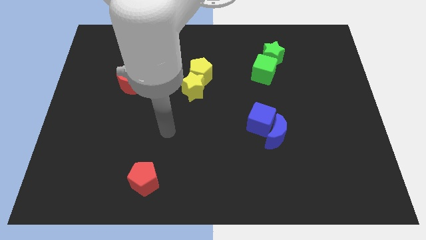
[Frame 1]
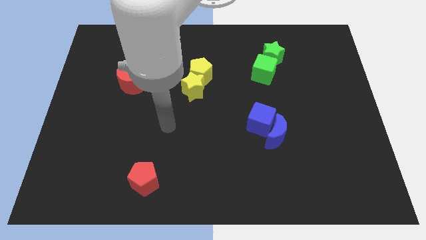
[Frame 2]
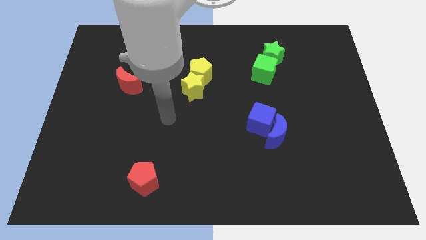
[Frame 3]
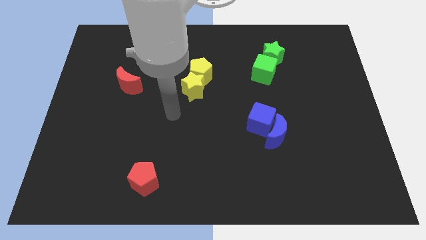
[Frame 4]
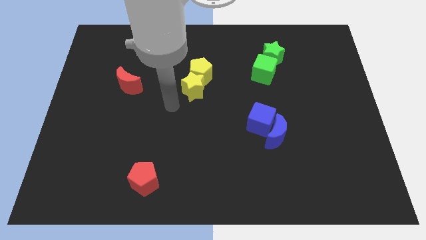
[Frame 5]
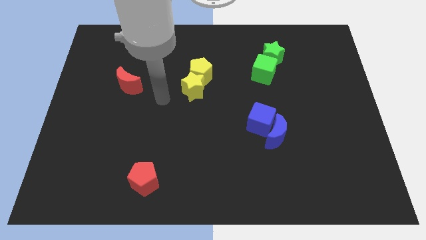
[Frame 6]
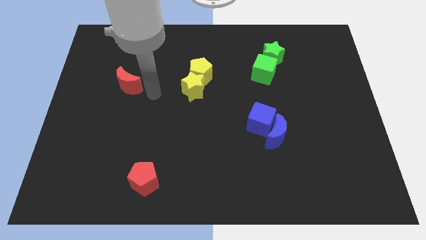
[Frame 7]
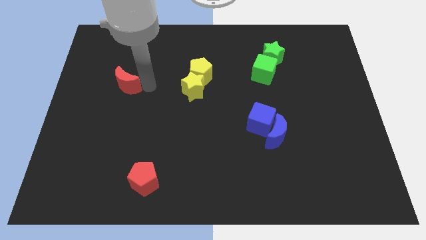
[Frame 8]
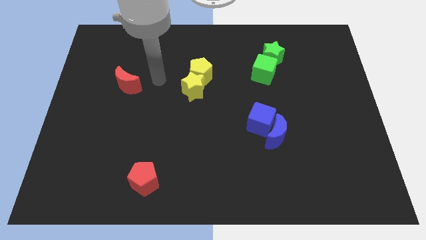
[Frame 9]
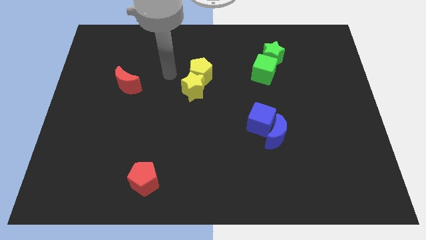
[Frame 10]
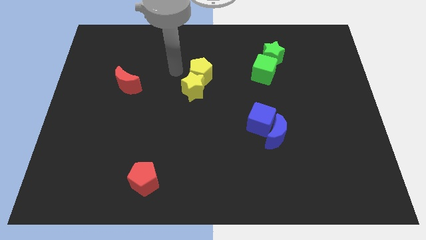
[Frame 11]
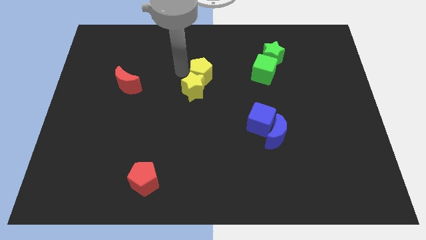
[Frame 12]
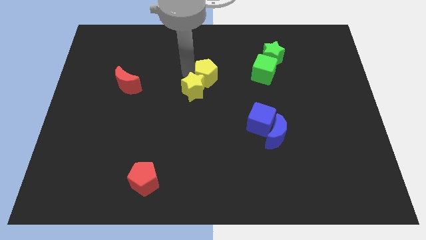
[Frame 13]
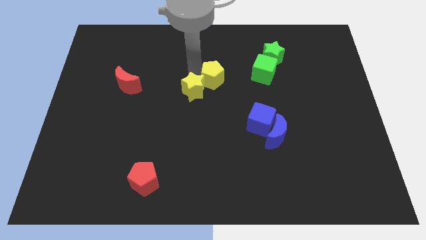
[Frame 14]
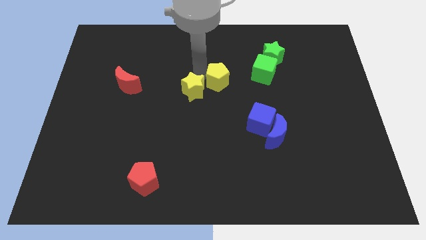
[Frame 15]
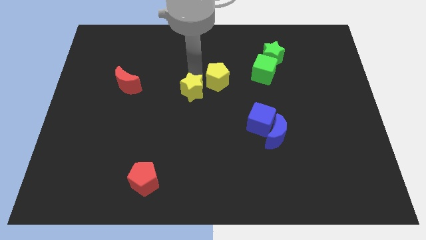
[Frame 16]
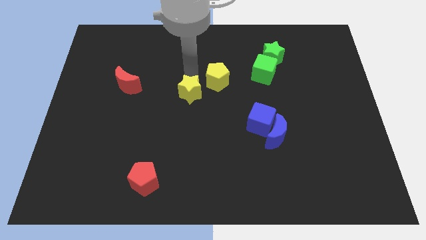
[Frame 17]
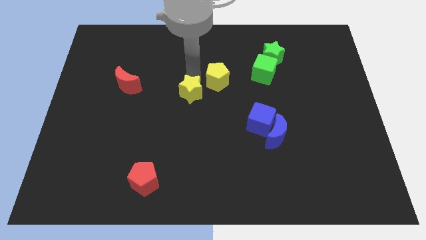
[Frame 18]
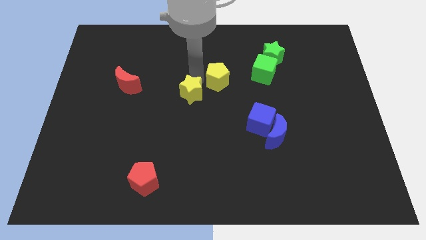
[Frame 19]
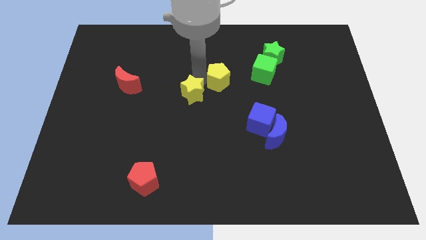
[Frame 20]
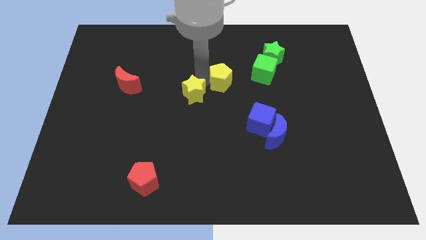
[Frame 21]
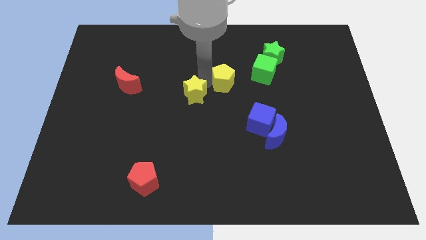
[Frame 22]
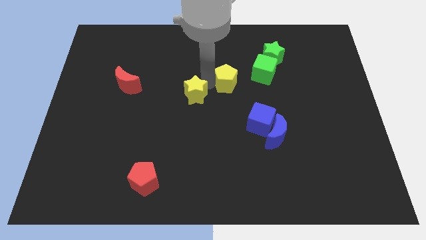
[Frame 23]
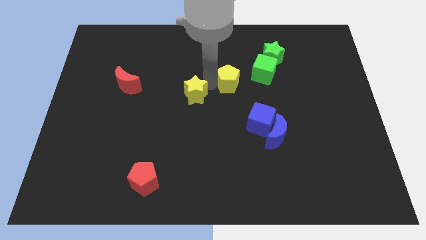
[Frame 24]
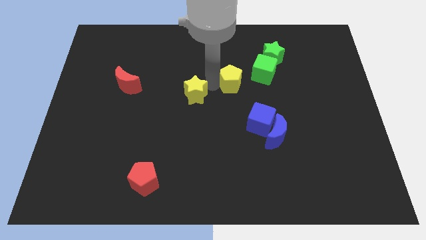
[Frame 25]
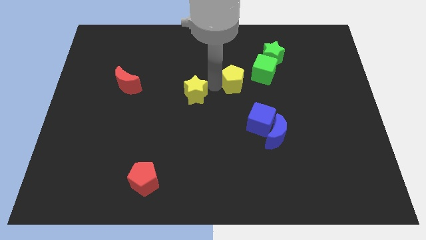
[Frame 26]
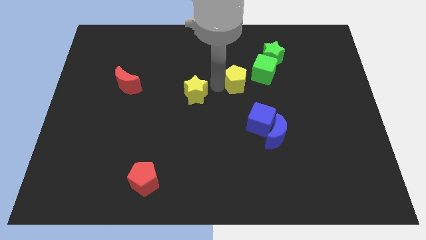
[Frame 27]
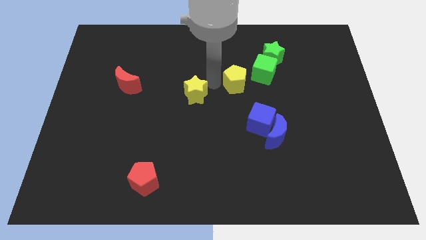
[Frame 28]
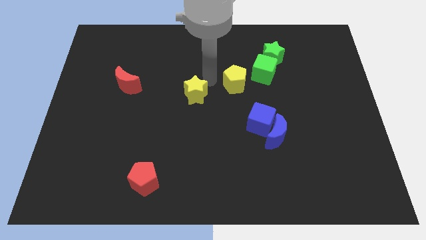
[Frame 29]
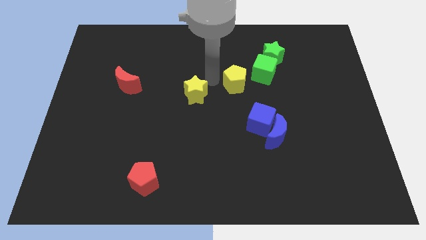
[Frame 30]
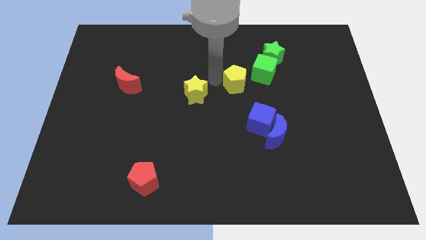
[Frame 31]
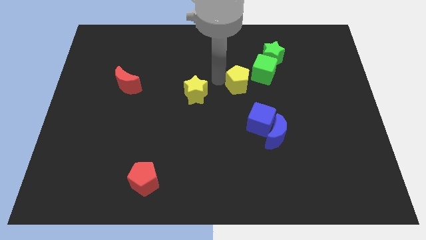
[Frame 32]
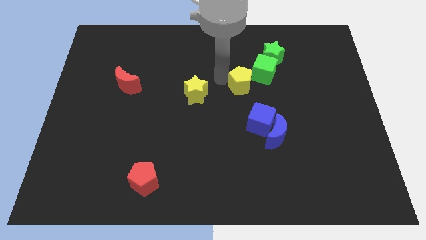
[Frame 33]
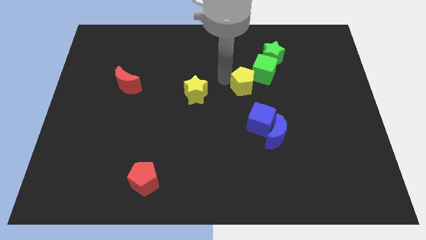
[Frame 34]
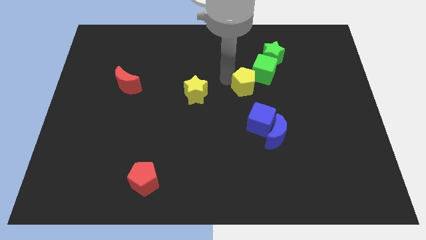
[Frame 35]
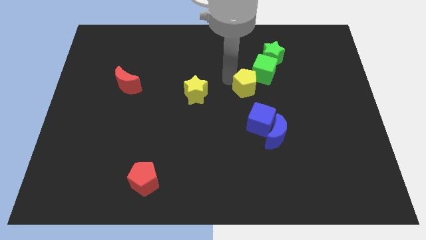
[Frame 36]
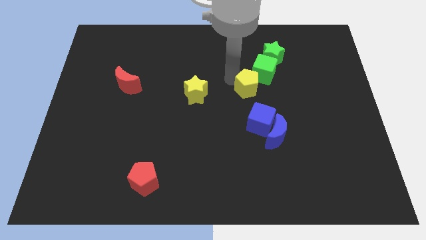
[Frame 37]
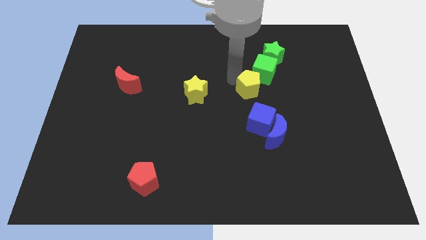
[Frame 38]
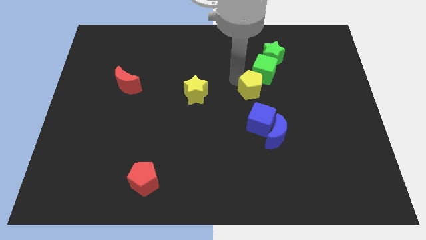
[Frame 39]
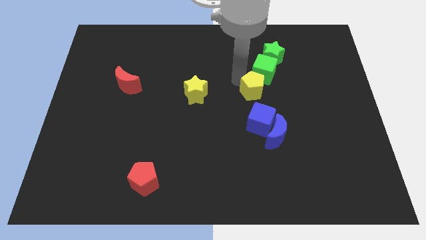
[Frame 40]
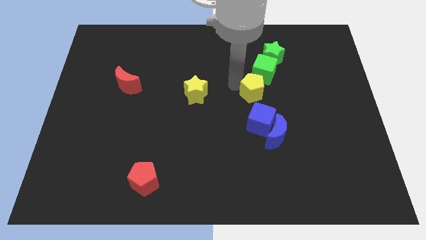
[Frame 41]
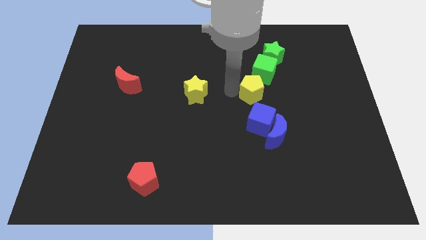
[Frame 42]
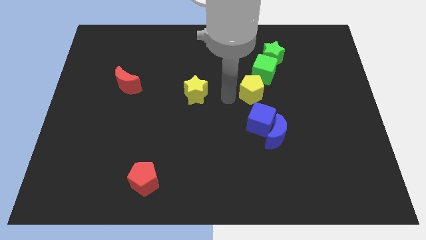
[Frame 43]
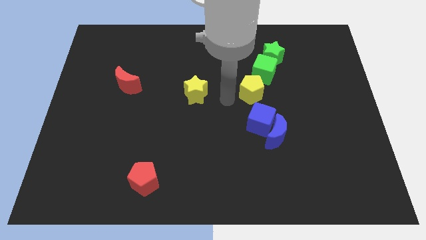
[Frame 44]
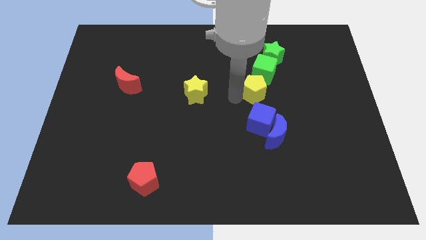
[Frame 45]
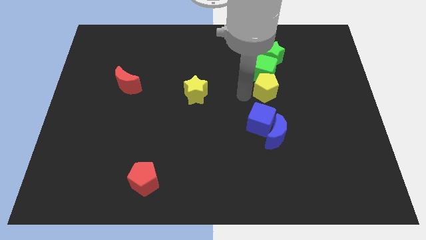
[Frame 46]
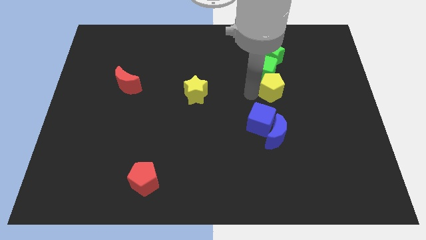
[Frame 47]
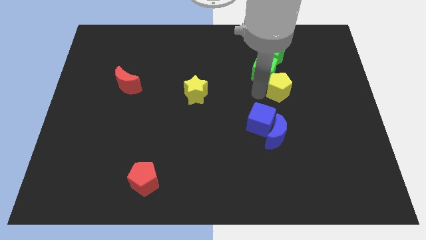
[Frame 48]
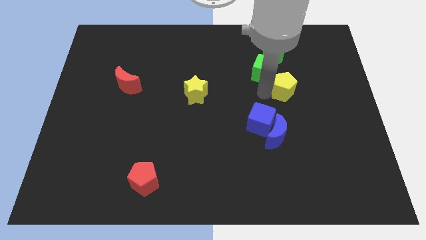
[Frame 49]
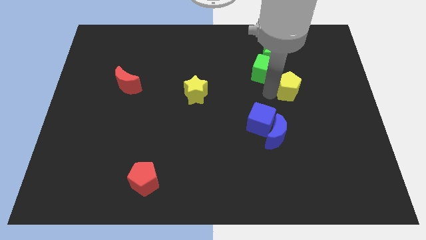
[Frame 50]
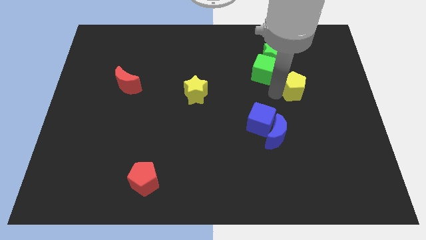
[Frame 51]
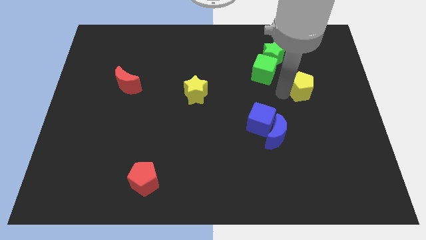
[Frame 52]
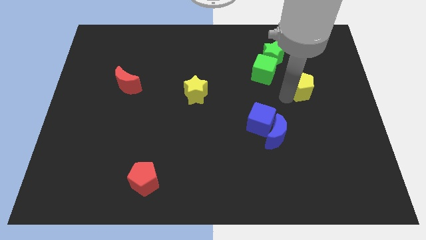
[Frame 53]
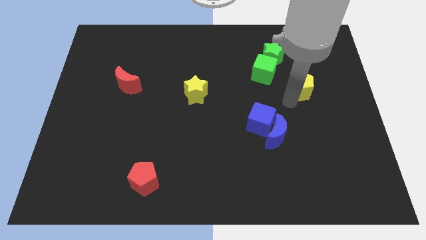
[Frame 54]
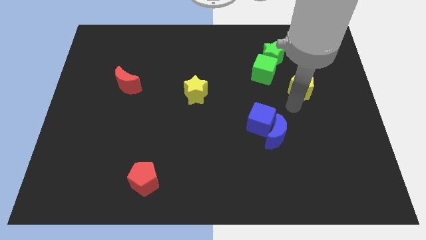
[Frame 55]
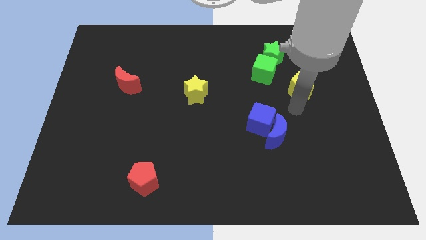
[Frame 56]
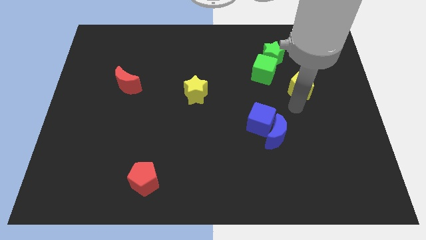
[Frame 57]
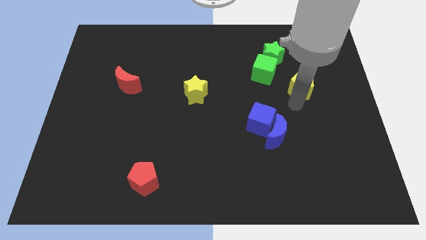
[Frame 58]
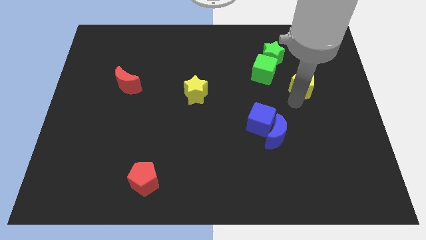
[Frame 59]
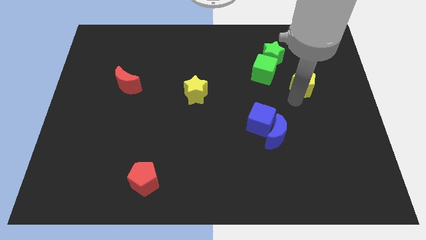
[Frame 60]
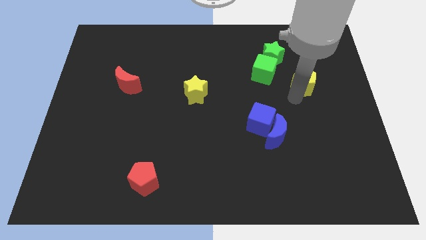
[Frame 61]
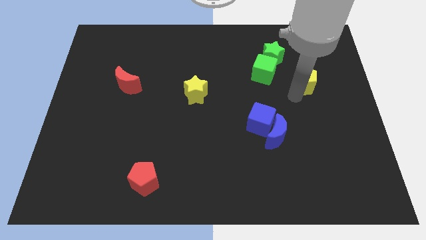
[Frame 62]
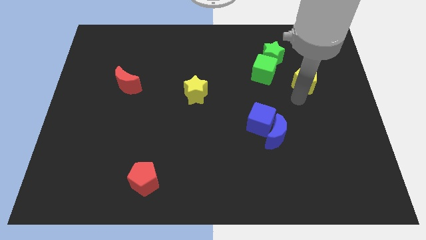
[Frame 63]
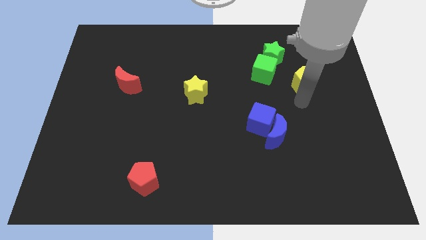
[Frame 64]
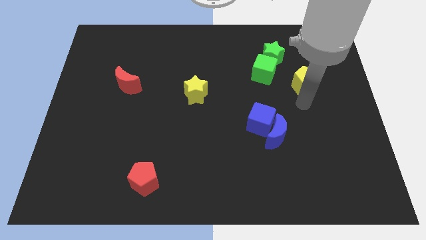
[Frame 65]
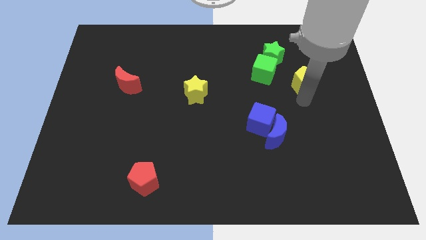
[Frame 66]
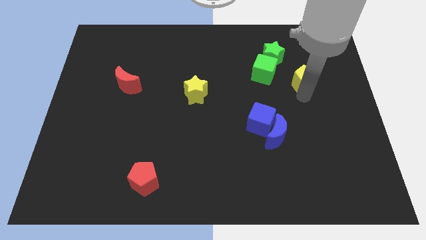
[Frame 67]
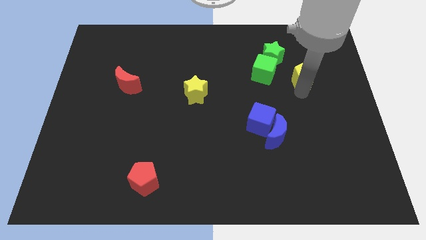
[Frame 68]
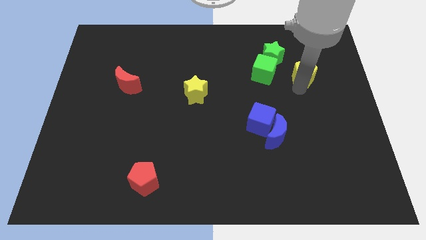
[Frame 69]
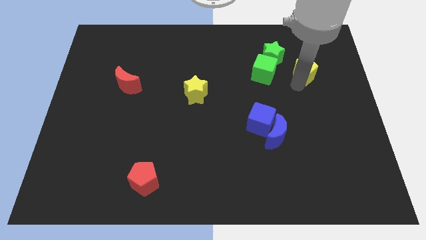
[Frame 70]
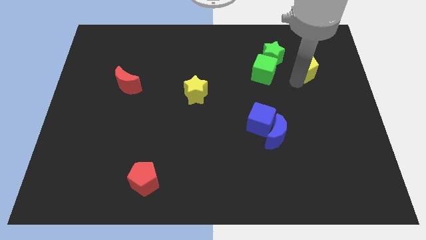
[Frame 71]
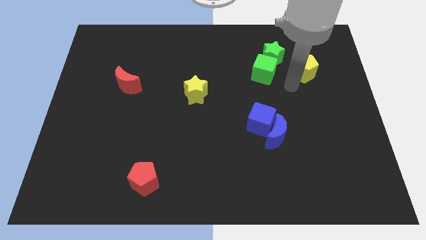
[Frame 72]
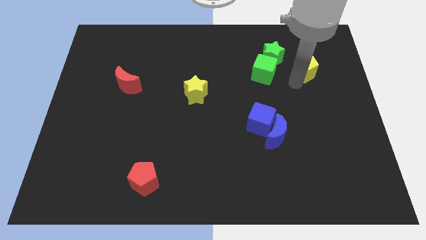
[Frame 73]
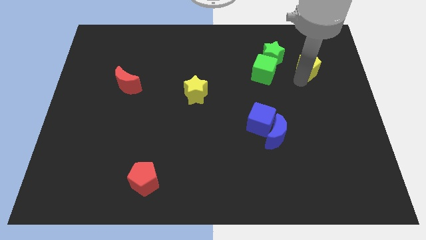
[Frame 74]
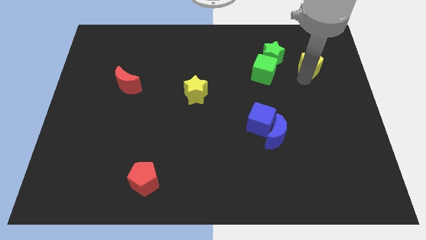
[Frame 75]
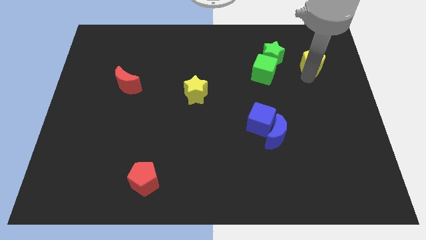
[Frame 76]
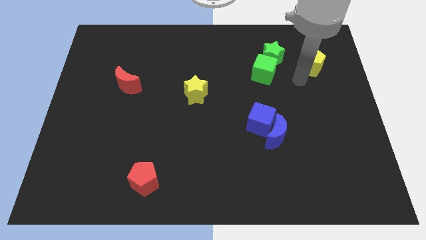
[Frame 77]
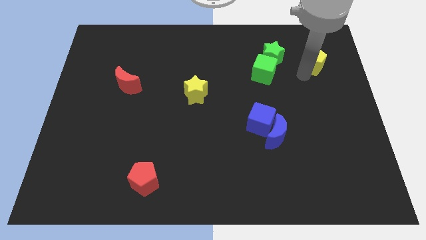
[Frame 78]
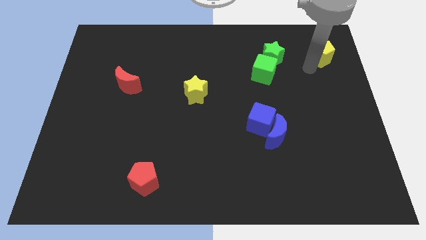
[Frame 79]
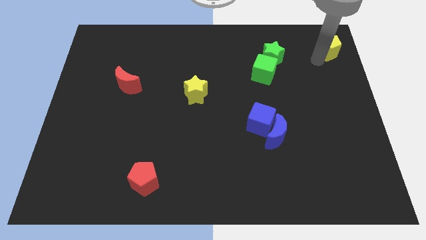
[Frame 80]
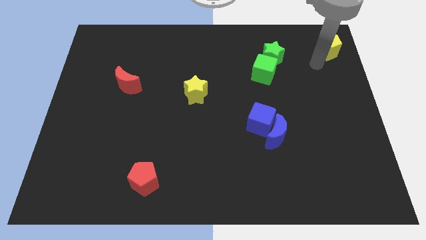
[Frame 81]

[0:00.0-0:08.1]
put the yellow pentagon to the top right corner
